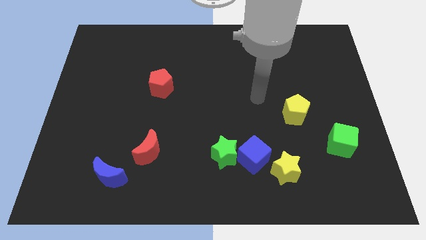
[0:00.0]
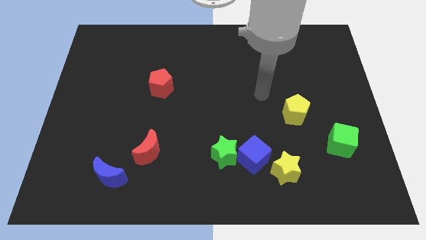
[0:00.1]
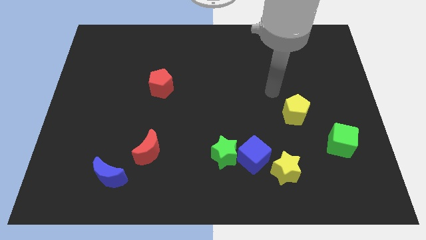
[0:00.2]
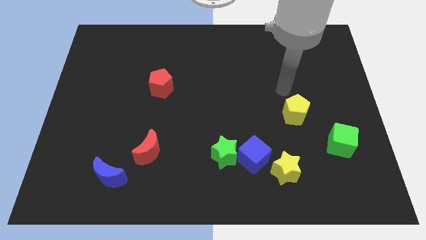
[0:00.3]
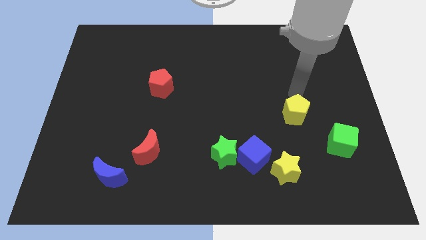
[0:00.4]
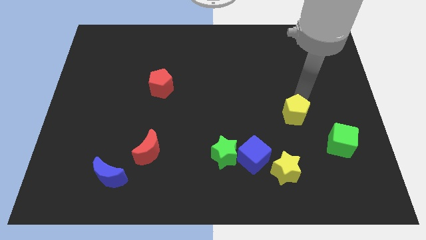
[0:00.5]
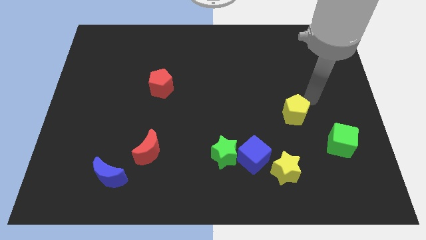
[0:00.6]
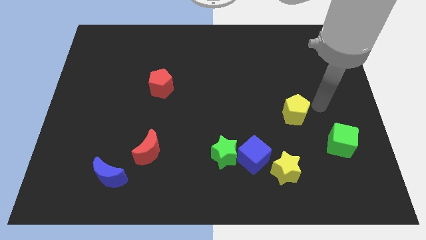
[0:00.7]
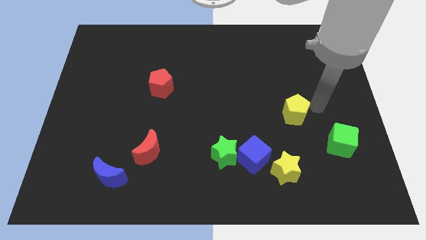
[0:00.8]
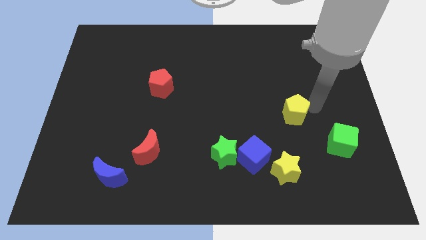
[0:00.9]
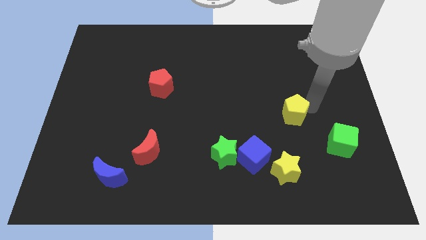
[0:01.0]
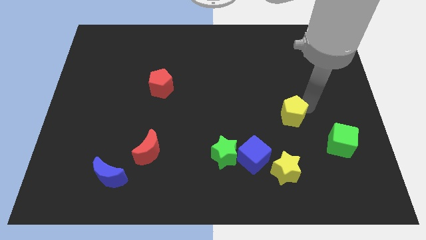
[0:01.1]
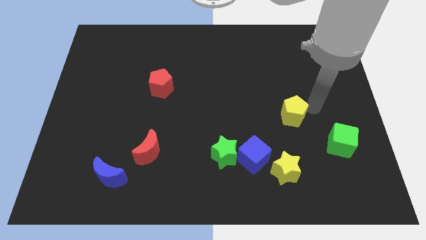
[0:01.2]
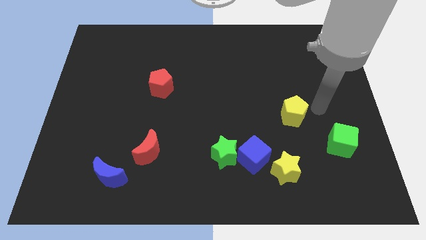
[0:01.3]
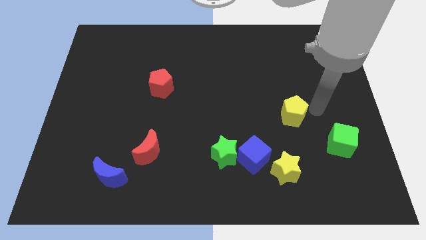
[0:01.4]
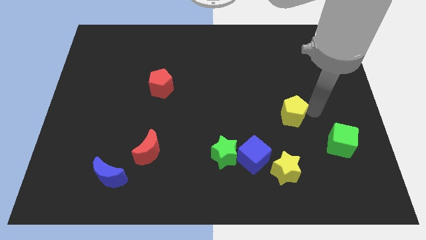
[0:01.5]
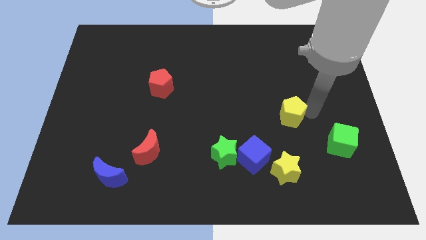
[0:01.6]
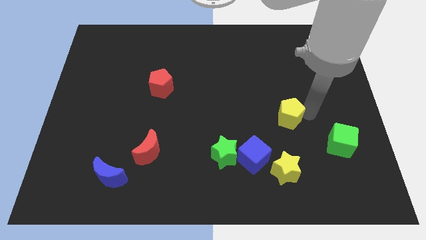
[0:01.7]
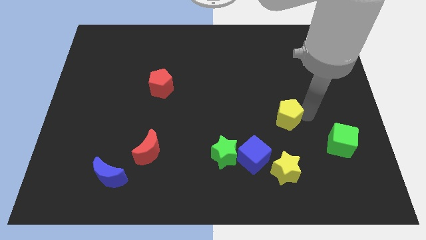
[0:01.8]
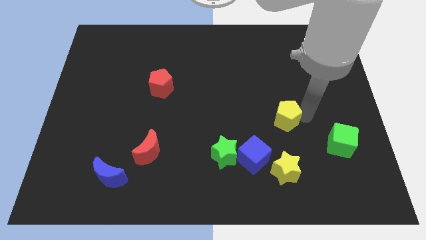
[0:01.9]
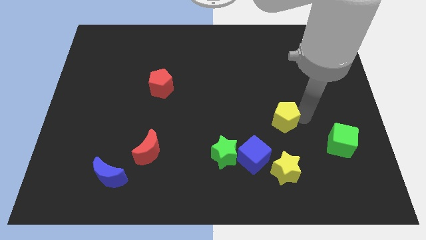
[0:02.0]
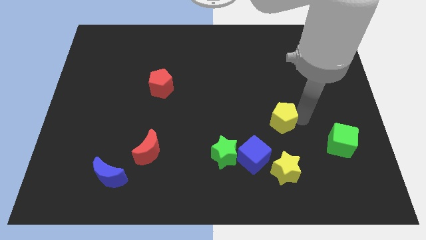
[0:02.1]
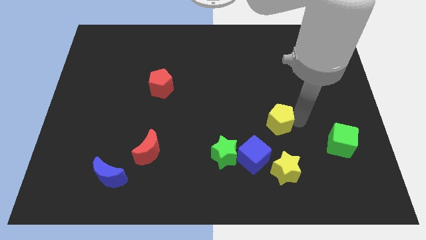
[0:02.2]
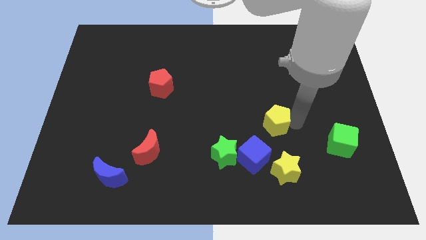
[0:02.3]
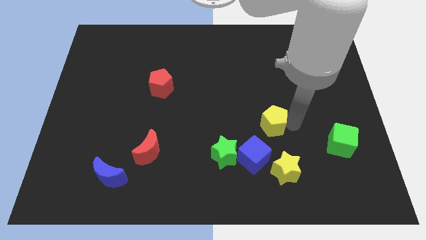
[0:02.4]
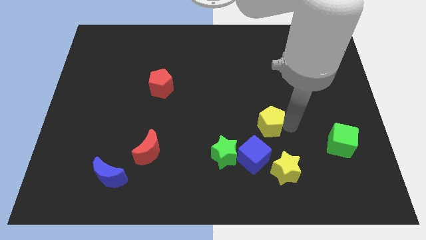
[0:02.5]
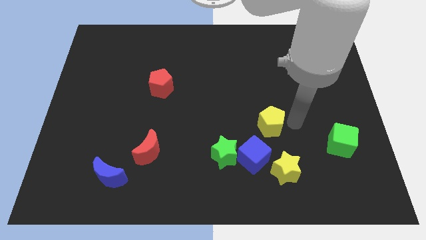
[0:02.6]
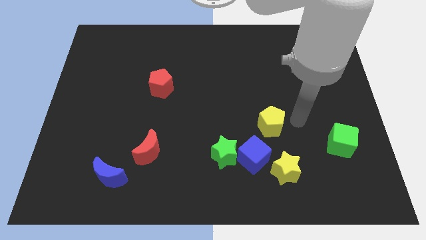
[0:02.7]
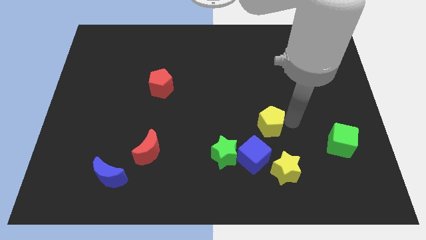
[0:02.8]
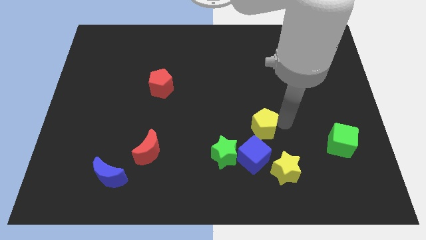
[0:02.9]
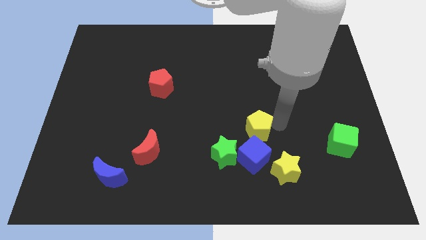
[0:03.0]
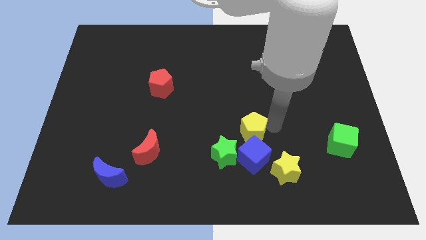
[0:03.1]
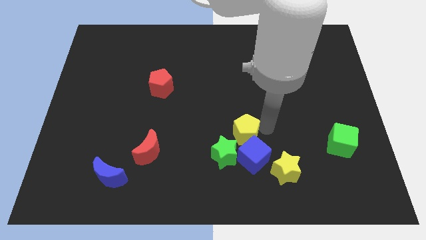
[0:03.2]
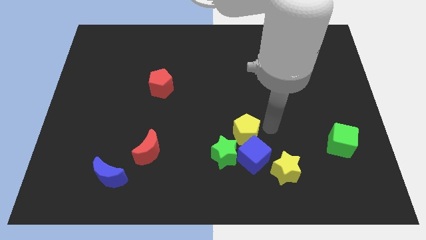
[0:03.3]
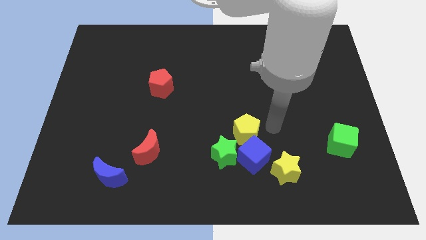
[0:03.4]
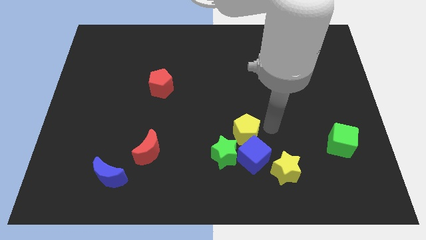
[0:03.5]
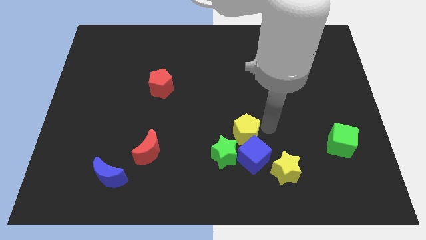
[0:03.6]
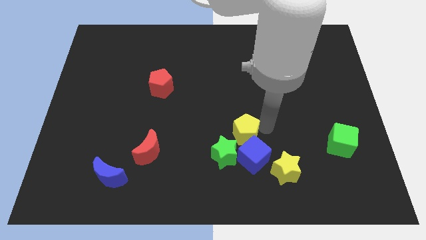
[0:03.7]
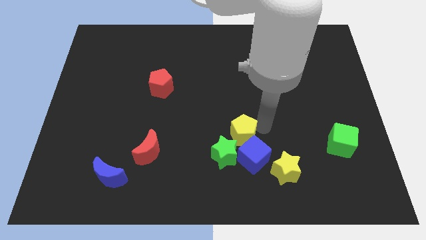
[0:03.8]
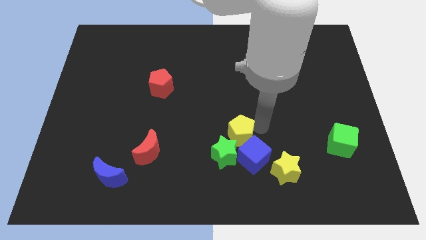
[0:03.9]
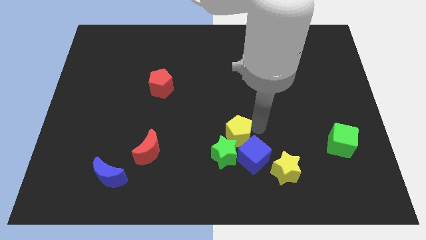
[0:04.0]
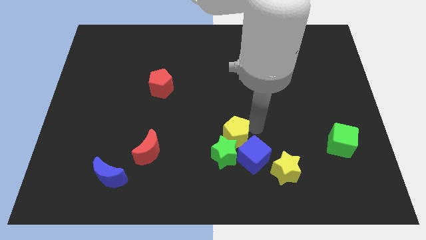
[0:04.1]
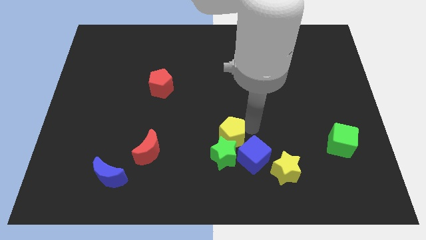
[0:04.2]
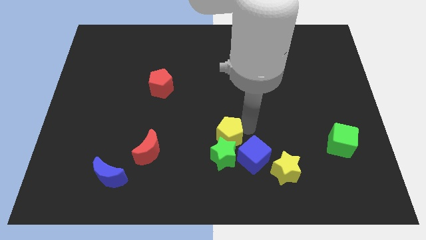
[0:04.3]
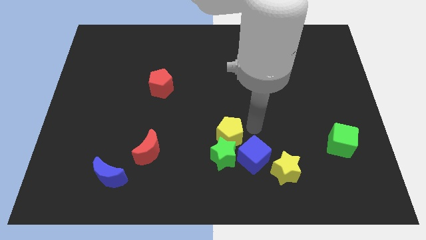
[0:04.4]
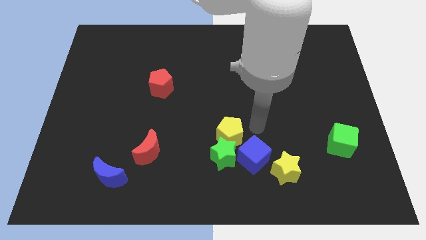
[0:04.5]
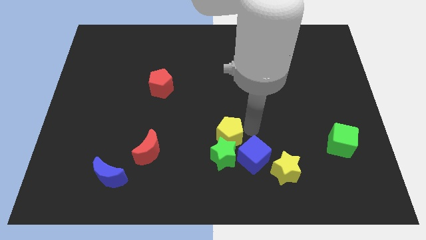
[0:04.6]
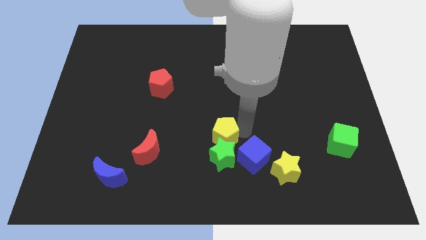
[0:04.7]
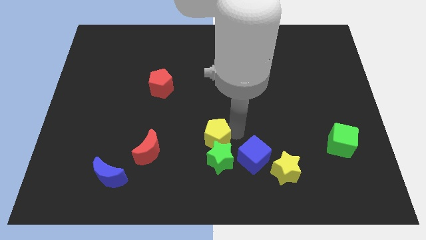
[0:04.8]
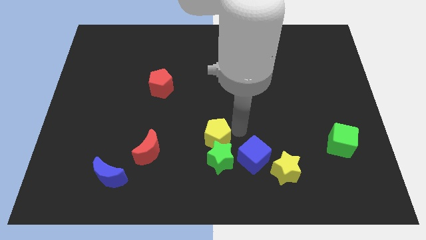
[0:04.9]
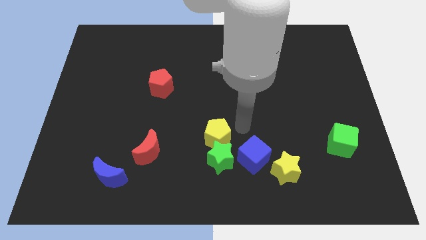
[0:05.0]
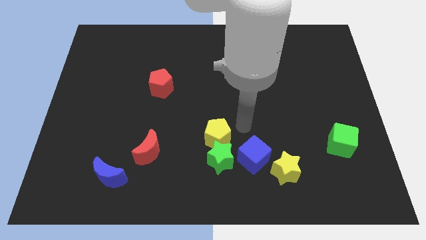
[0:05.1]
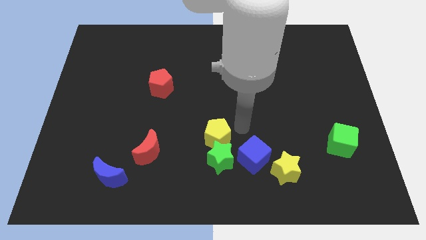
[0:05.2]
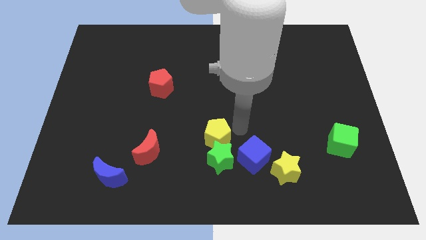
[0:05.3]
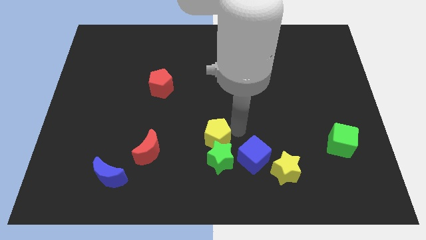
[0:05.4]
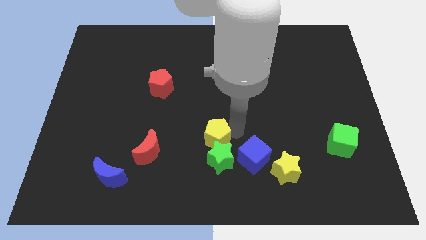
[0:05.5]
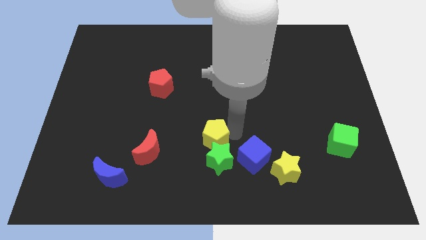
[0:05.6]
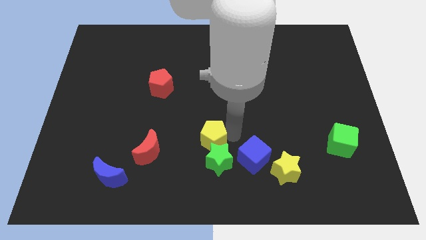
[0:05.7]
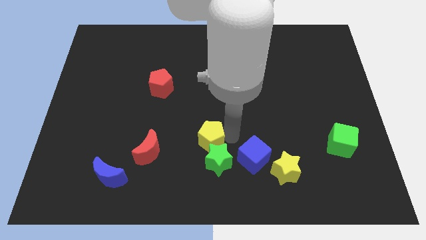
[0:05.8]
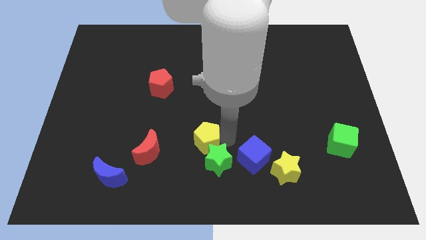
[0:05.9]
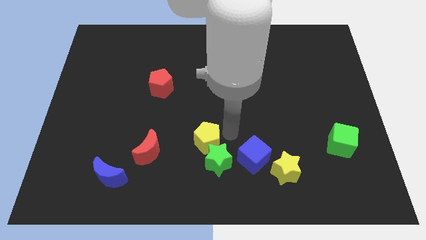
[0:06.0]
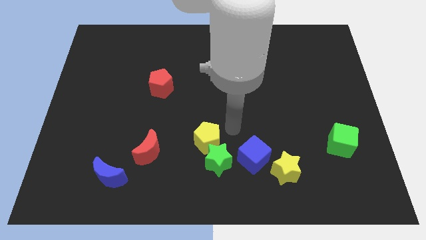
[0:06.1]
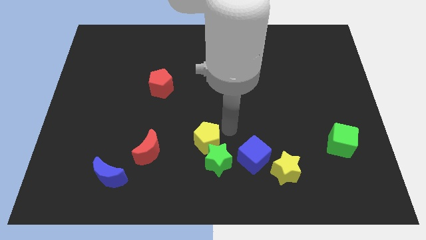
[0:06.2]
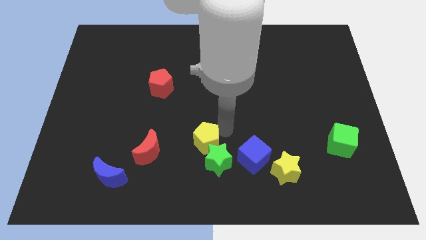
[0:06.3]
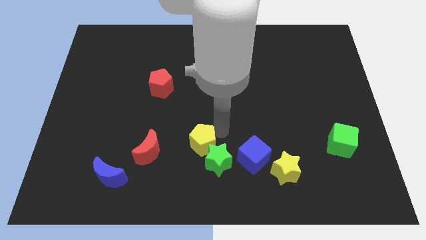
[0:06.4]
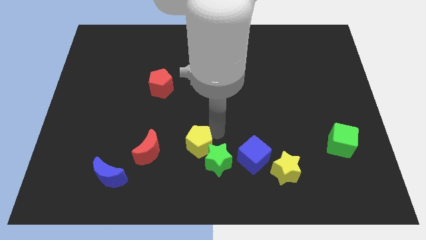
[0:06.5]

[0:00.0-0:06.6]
slide the yellow pentagon to the left side of the green star
